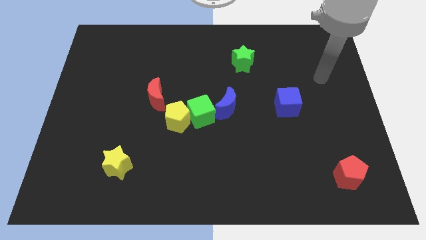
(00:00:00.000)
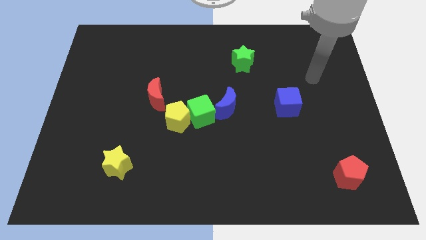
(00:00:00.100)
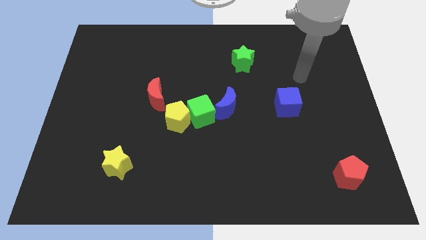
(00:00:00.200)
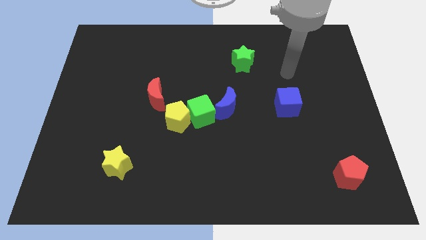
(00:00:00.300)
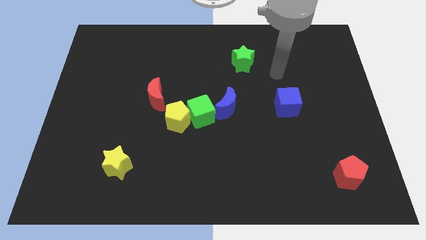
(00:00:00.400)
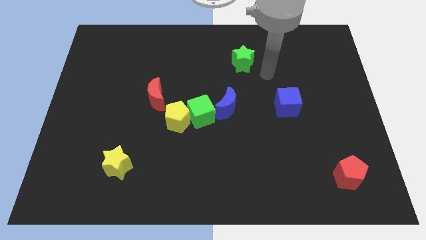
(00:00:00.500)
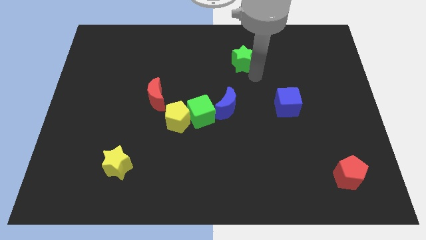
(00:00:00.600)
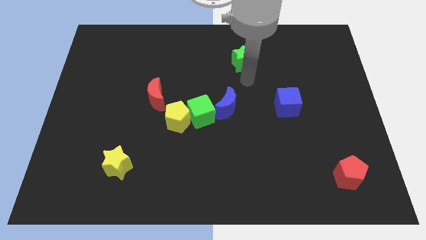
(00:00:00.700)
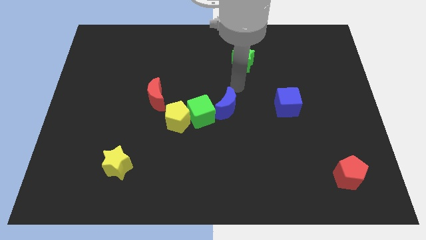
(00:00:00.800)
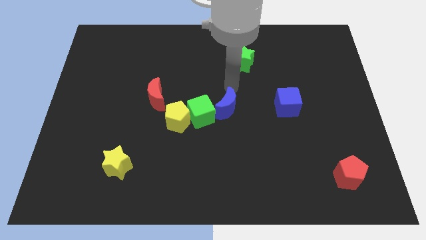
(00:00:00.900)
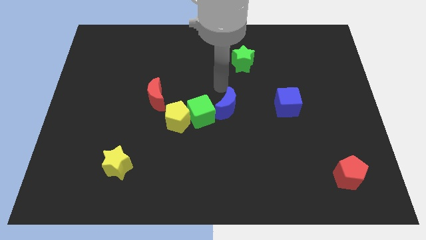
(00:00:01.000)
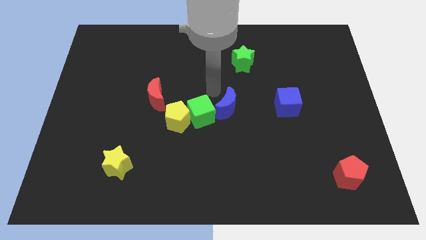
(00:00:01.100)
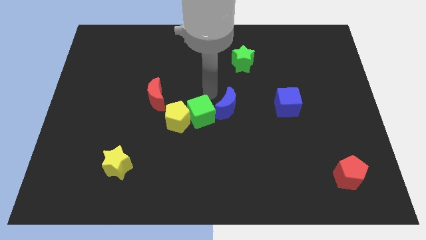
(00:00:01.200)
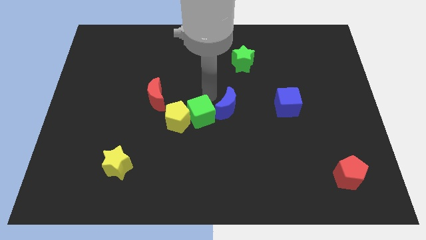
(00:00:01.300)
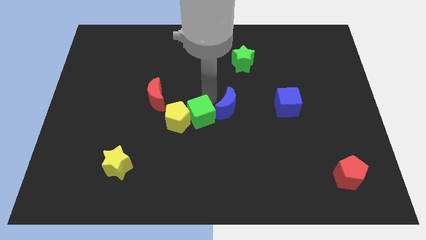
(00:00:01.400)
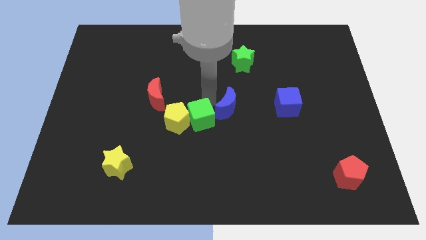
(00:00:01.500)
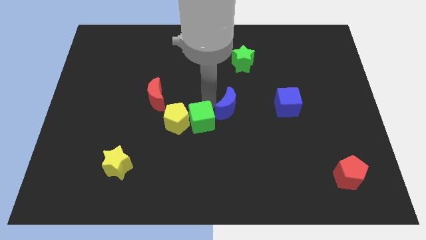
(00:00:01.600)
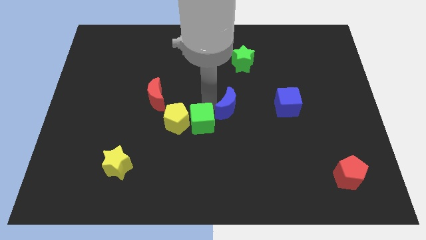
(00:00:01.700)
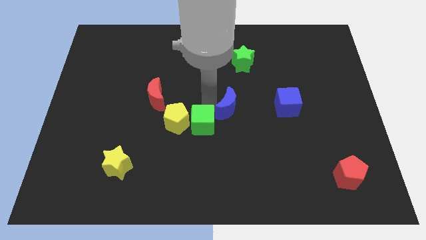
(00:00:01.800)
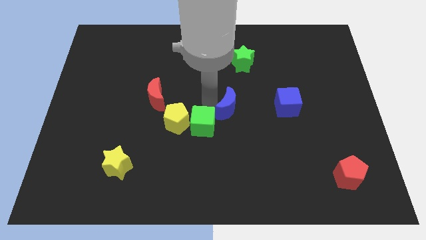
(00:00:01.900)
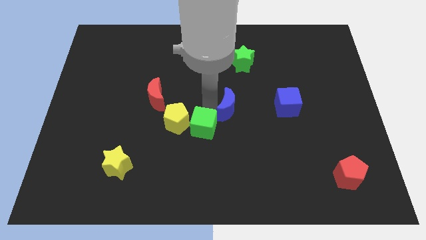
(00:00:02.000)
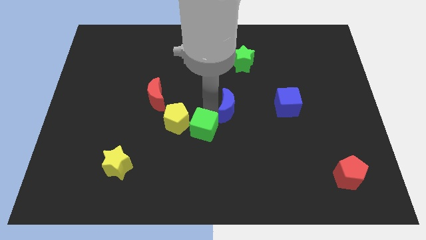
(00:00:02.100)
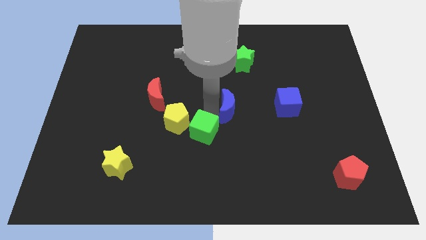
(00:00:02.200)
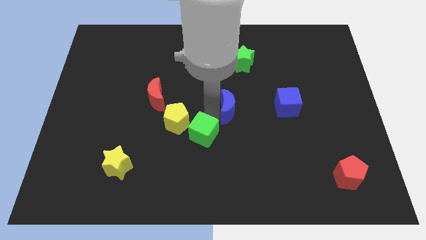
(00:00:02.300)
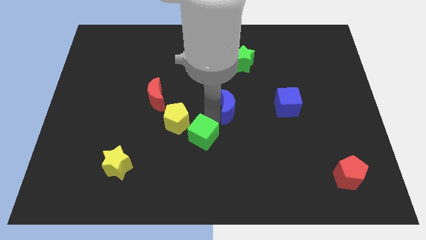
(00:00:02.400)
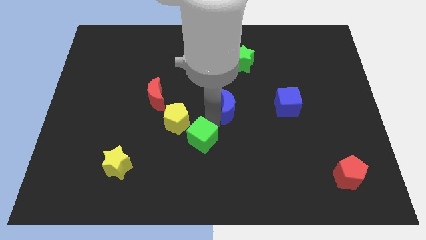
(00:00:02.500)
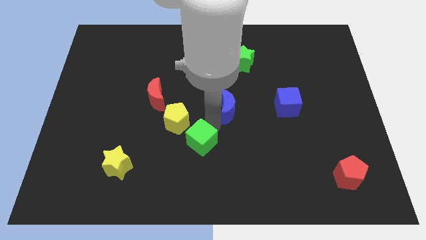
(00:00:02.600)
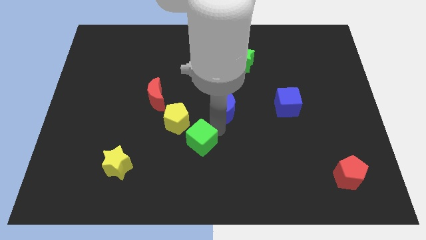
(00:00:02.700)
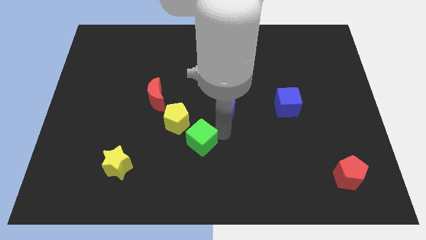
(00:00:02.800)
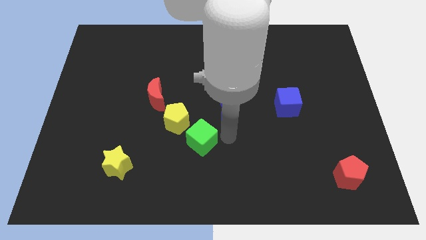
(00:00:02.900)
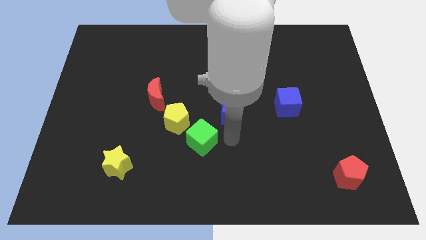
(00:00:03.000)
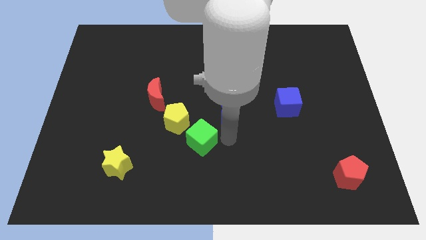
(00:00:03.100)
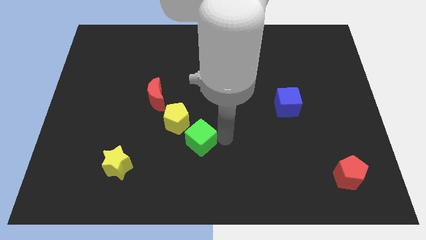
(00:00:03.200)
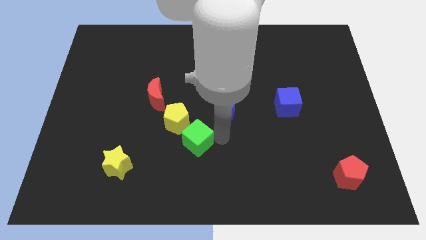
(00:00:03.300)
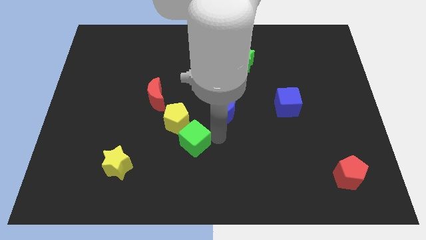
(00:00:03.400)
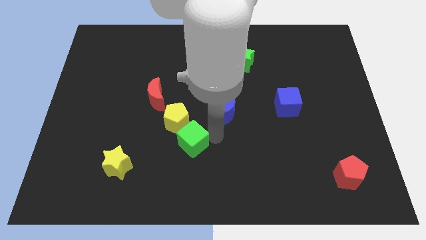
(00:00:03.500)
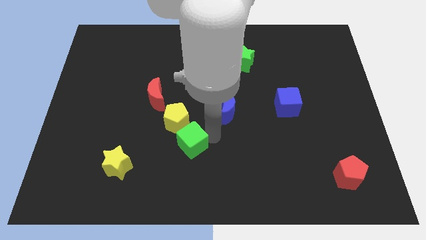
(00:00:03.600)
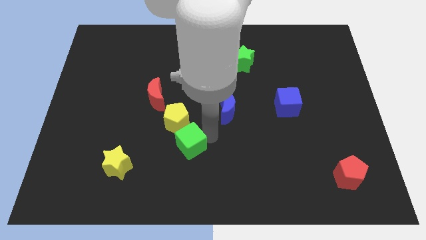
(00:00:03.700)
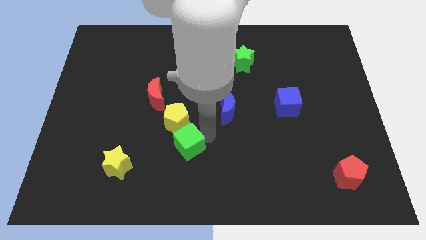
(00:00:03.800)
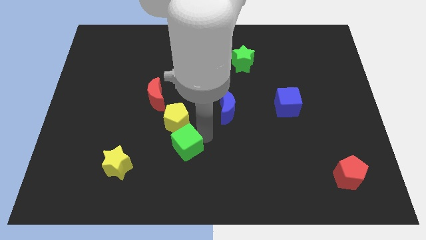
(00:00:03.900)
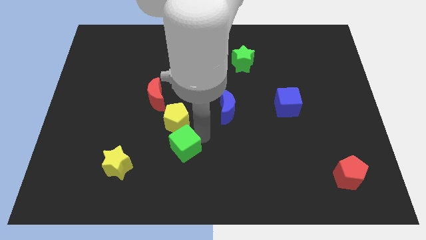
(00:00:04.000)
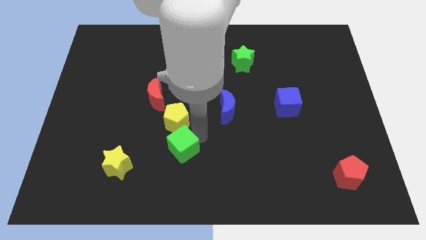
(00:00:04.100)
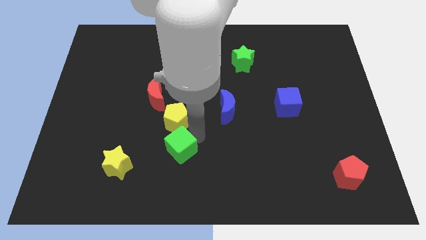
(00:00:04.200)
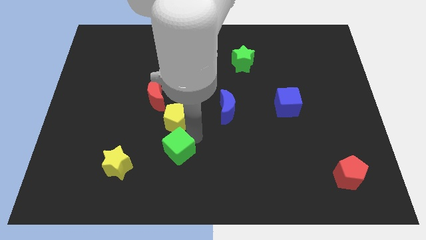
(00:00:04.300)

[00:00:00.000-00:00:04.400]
separate the green cube from the yellow pentagon and blue moon

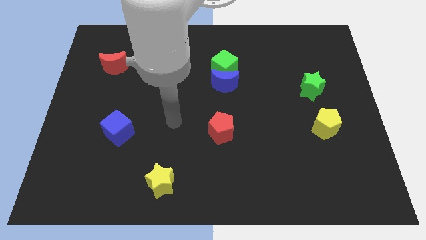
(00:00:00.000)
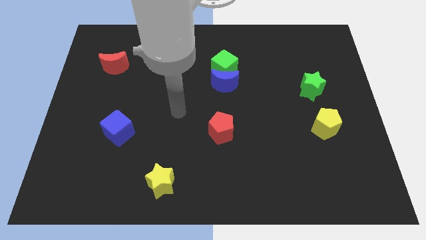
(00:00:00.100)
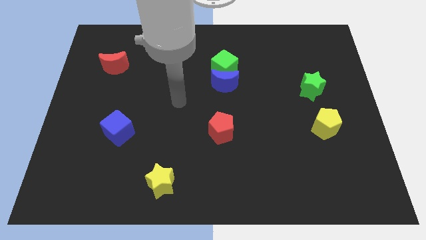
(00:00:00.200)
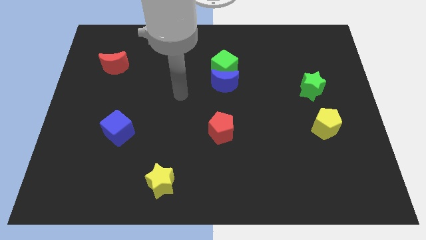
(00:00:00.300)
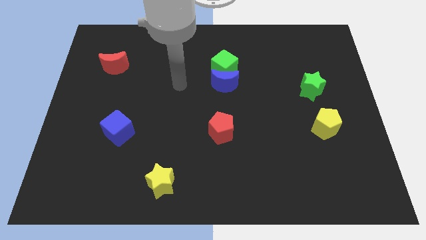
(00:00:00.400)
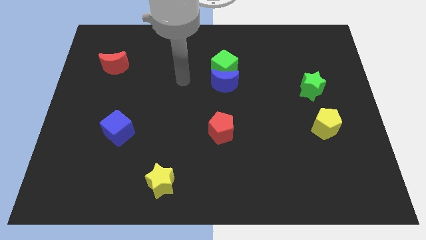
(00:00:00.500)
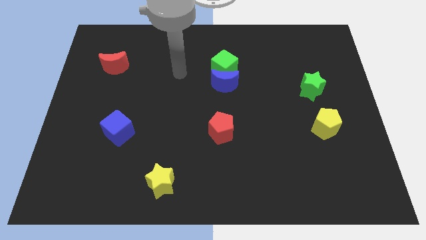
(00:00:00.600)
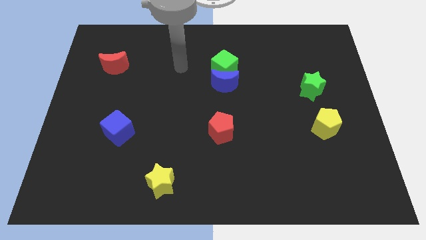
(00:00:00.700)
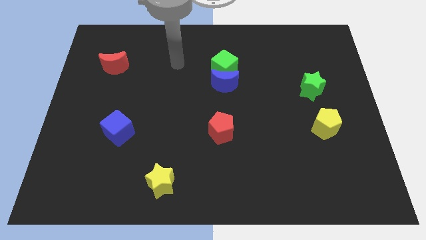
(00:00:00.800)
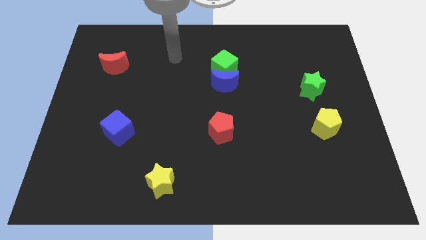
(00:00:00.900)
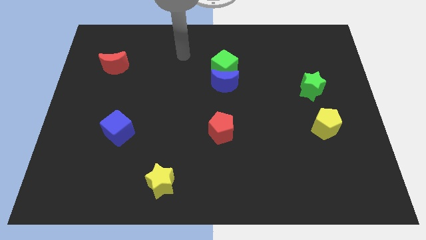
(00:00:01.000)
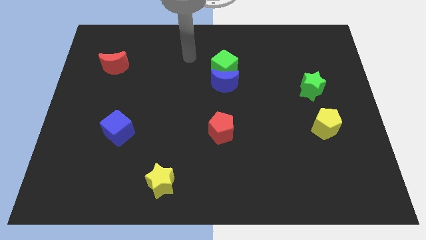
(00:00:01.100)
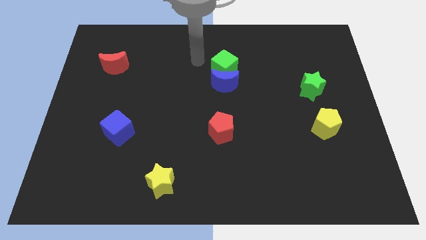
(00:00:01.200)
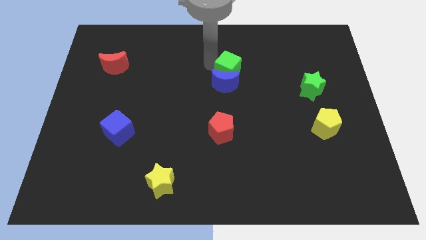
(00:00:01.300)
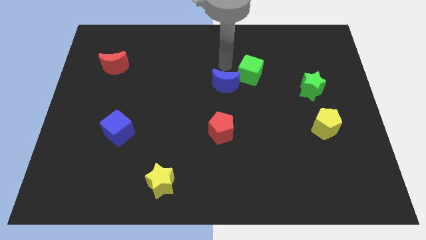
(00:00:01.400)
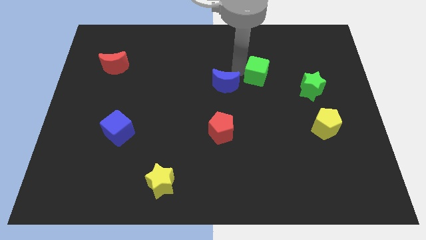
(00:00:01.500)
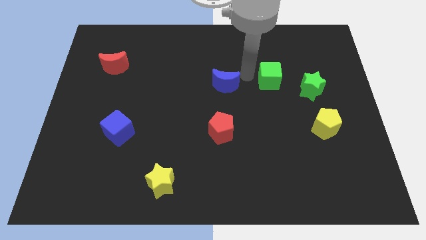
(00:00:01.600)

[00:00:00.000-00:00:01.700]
separate the blue moon from the green cube

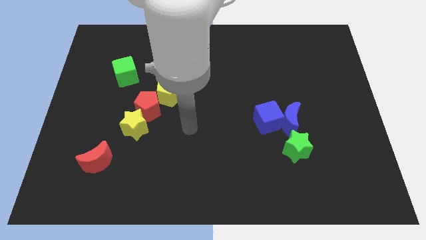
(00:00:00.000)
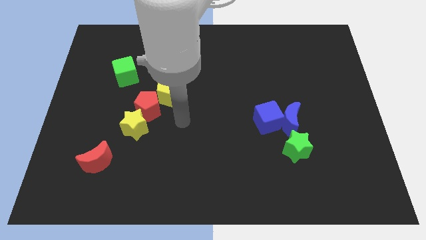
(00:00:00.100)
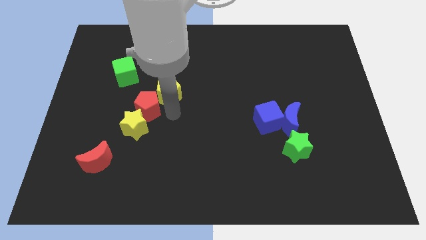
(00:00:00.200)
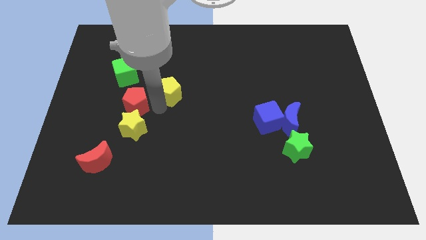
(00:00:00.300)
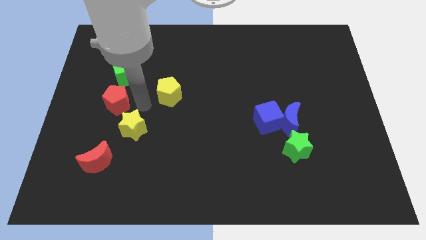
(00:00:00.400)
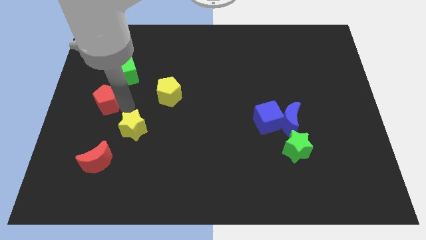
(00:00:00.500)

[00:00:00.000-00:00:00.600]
separate the yellow star from the red pentagon

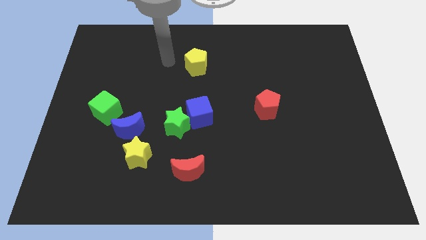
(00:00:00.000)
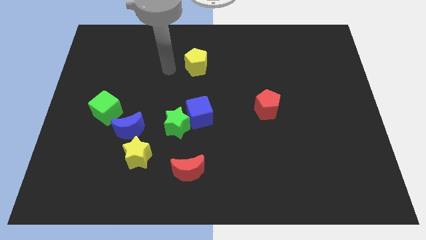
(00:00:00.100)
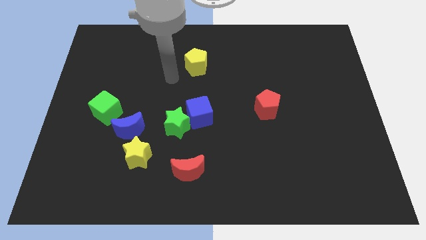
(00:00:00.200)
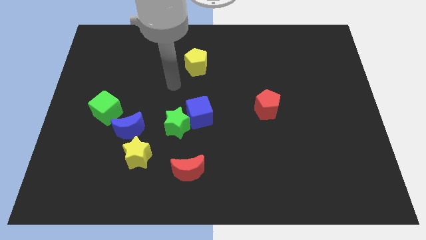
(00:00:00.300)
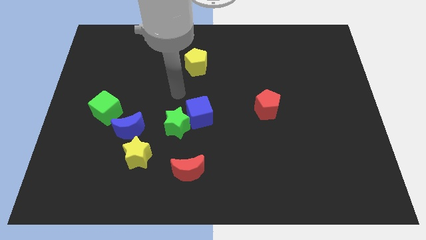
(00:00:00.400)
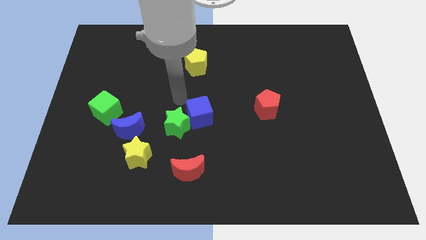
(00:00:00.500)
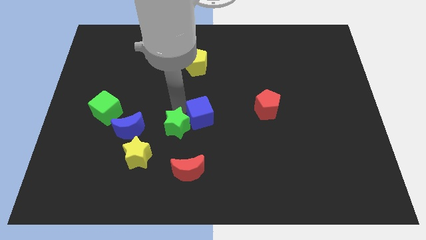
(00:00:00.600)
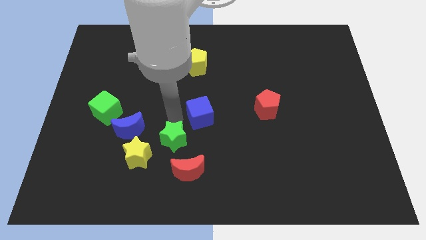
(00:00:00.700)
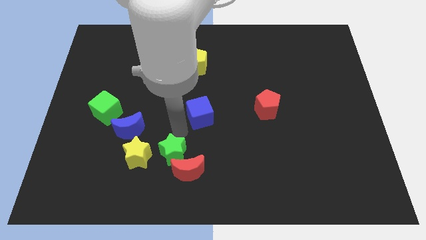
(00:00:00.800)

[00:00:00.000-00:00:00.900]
separate the blue cube from the green star

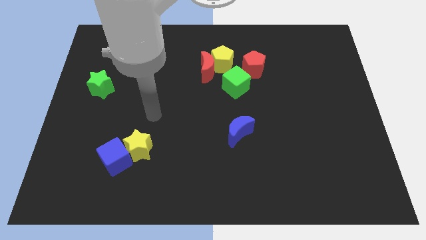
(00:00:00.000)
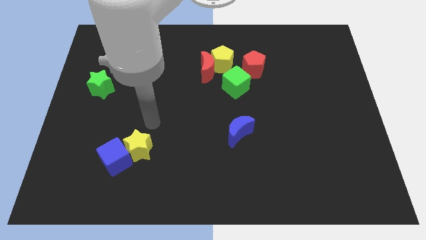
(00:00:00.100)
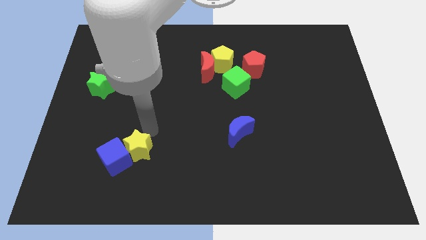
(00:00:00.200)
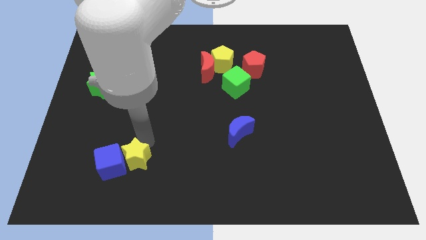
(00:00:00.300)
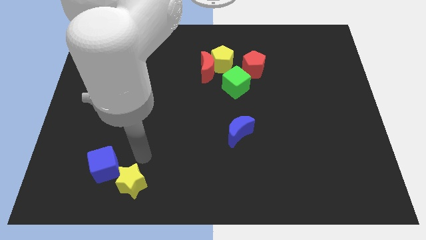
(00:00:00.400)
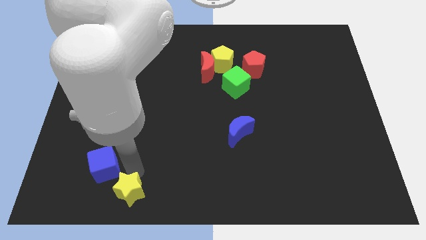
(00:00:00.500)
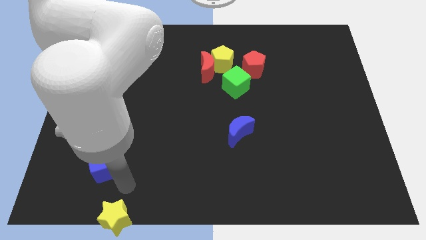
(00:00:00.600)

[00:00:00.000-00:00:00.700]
move the blue cube away from the yellow star

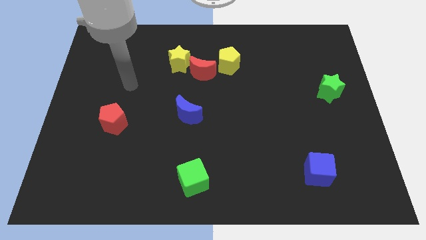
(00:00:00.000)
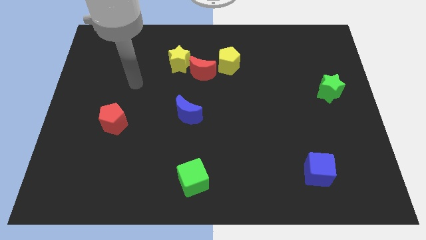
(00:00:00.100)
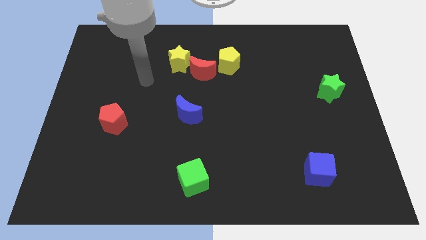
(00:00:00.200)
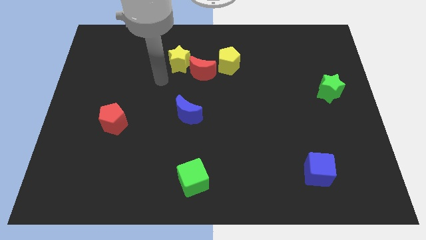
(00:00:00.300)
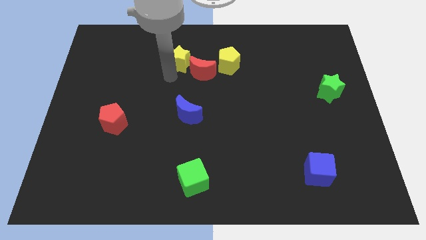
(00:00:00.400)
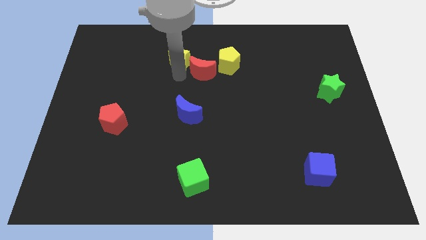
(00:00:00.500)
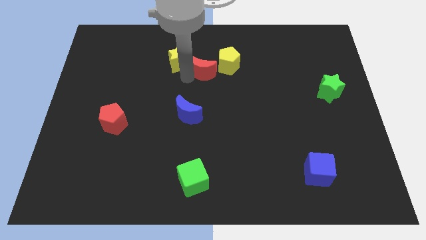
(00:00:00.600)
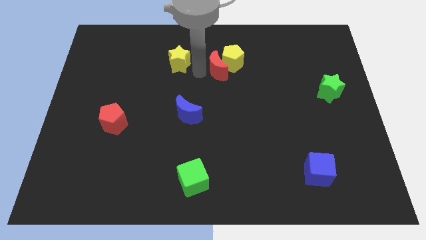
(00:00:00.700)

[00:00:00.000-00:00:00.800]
separate the yellow star from the red moon
